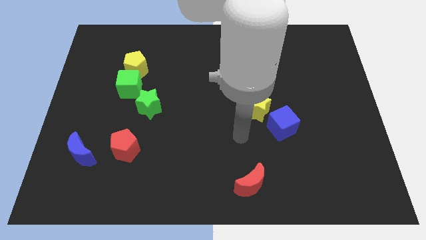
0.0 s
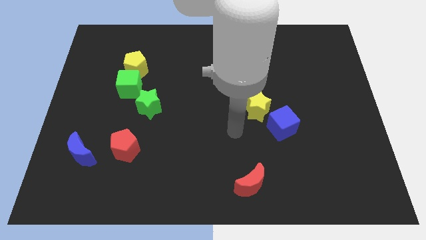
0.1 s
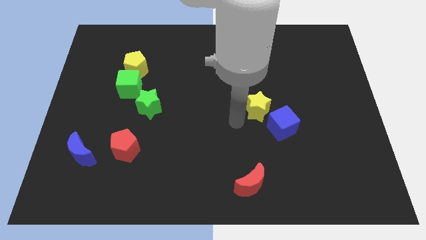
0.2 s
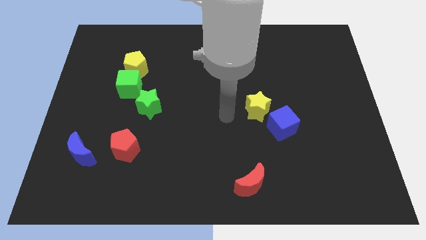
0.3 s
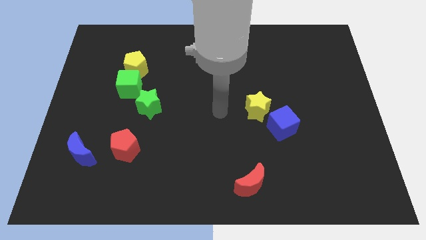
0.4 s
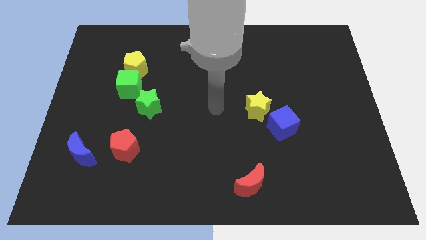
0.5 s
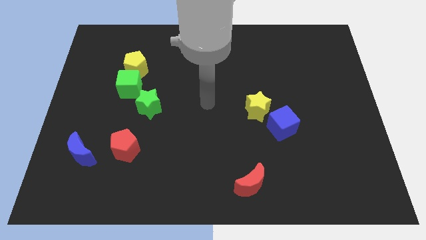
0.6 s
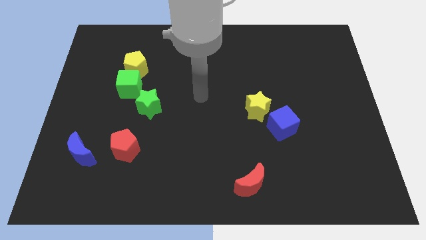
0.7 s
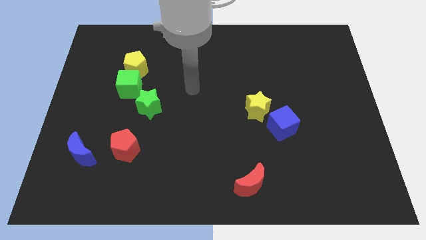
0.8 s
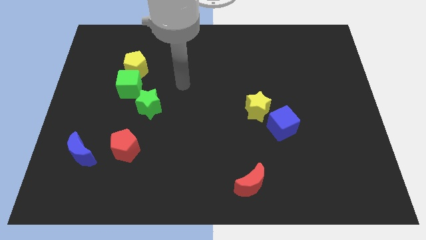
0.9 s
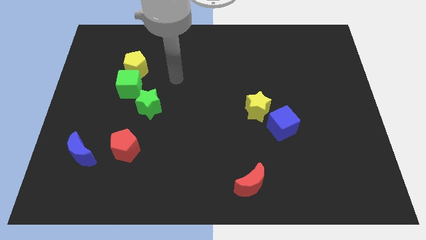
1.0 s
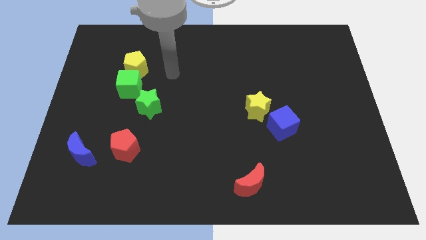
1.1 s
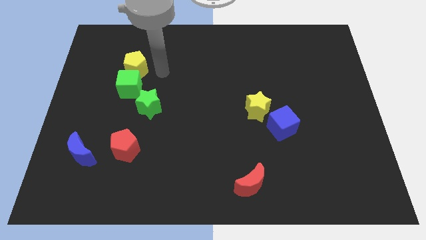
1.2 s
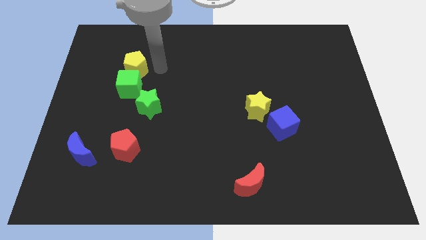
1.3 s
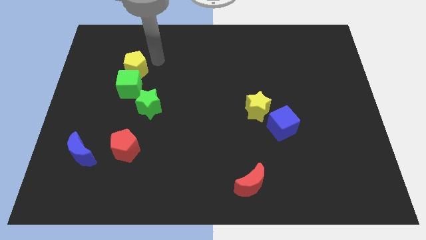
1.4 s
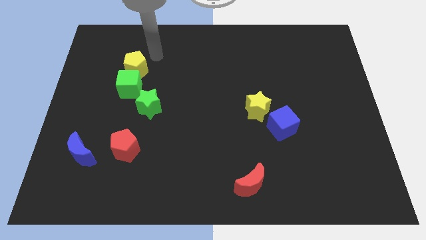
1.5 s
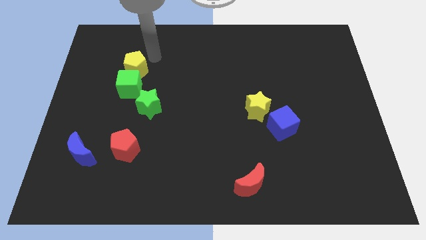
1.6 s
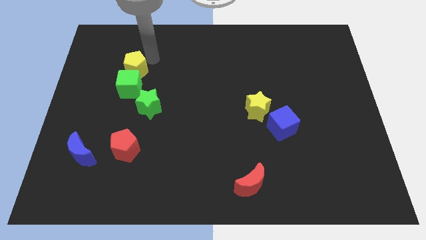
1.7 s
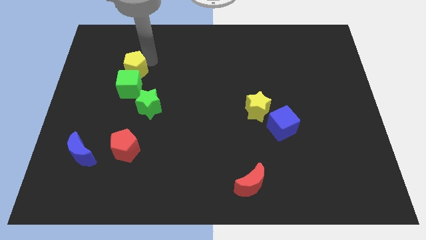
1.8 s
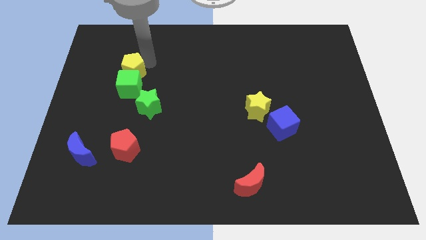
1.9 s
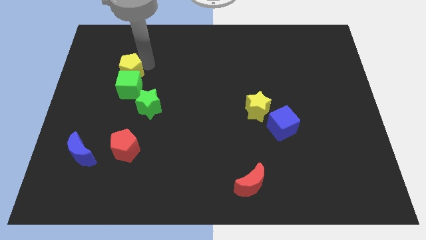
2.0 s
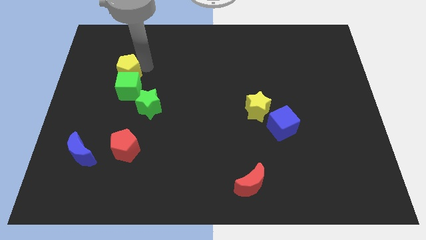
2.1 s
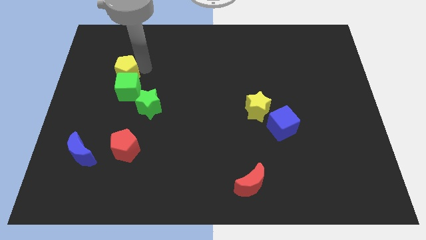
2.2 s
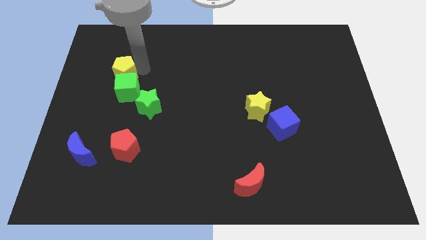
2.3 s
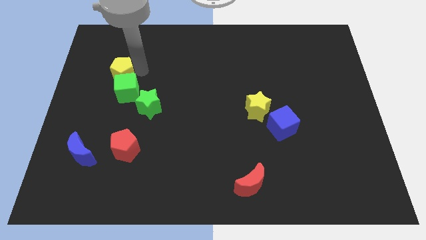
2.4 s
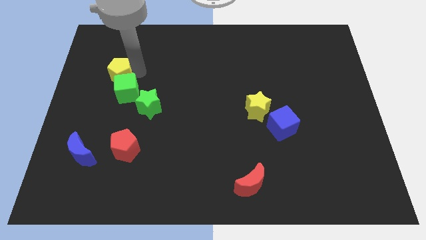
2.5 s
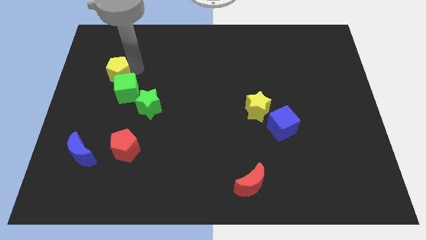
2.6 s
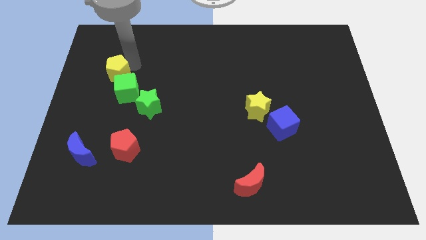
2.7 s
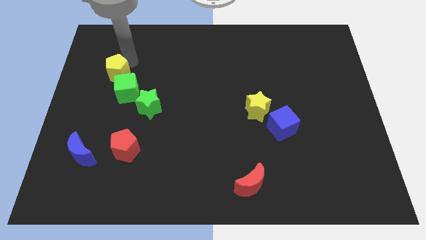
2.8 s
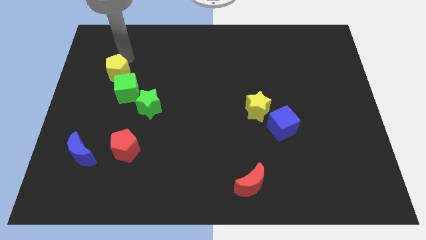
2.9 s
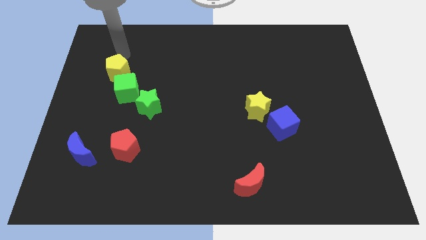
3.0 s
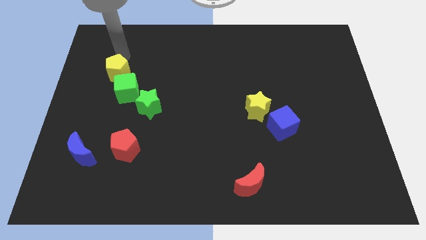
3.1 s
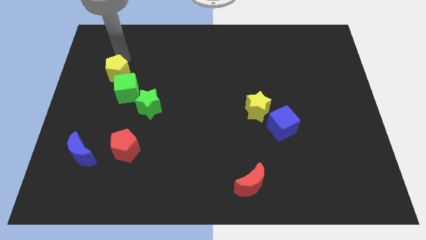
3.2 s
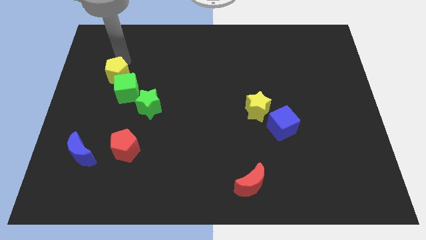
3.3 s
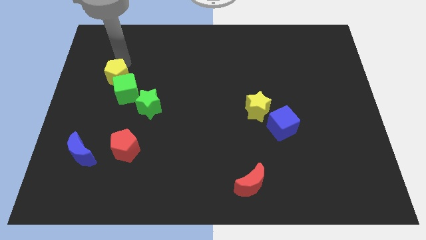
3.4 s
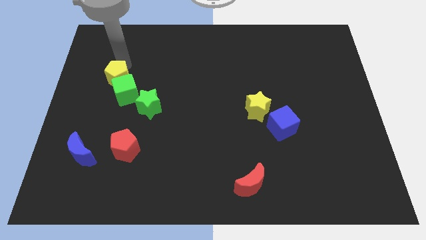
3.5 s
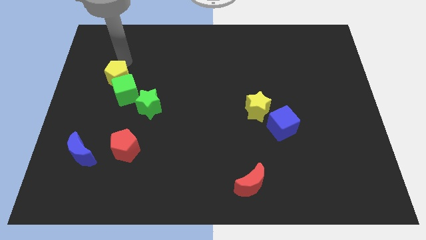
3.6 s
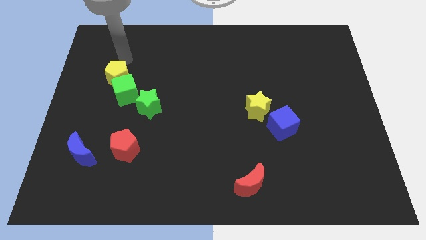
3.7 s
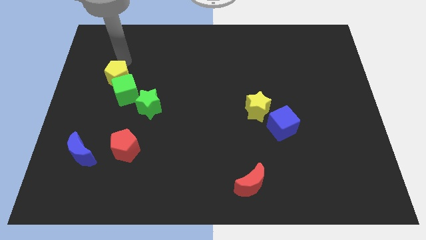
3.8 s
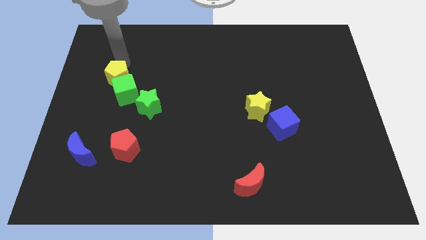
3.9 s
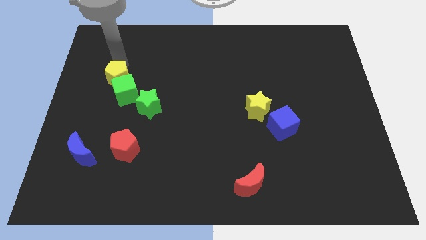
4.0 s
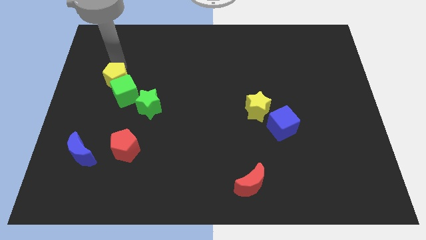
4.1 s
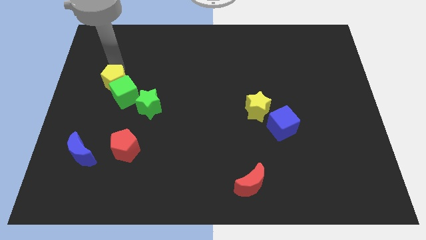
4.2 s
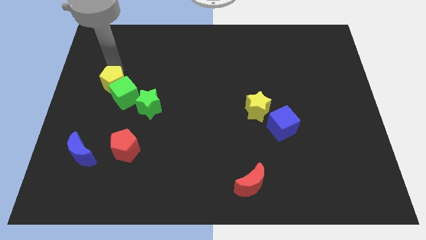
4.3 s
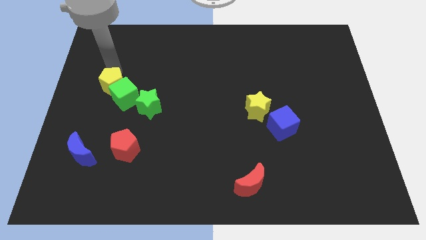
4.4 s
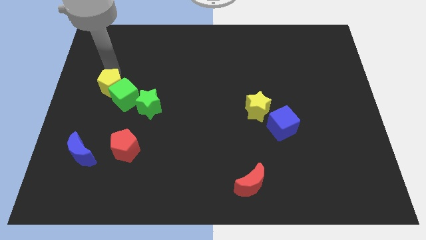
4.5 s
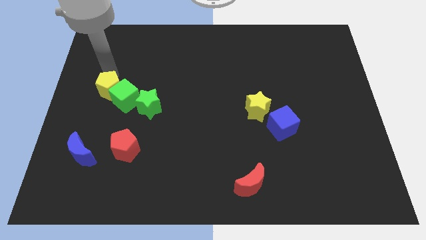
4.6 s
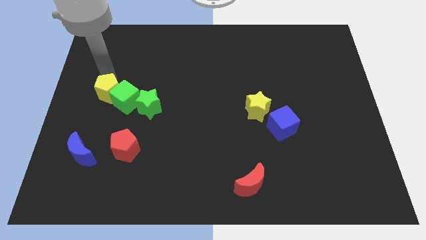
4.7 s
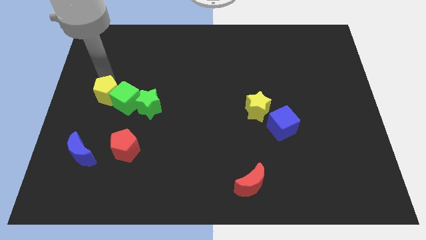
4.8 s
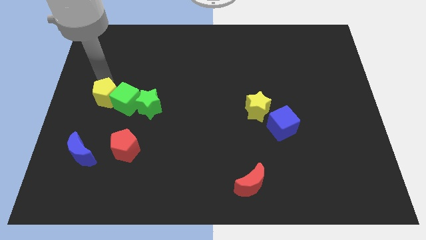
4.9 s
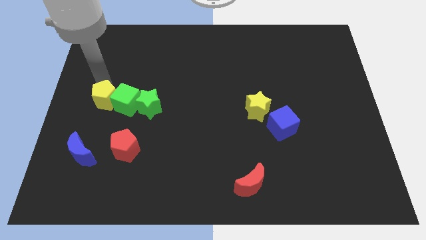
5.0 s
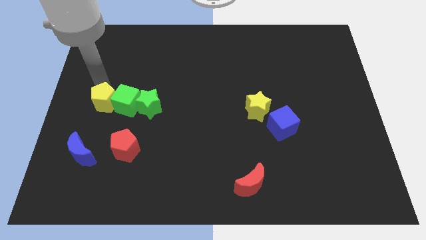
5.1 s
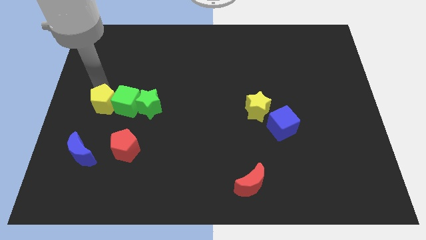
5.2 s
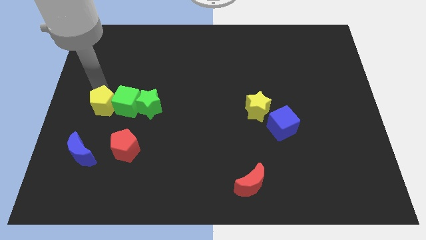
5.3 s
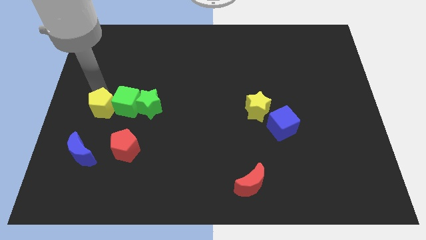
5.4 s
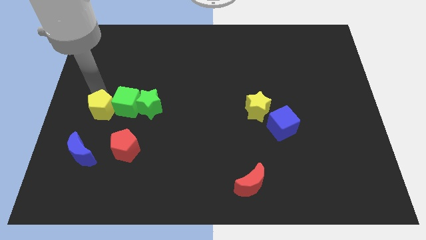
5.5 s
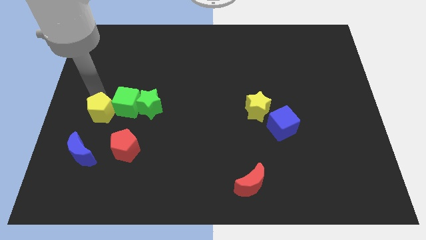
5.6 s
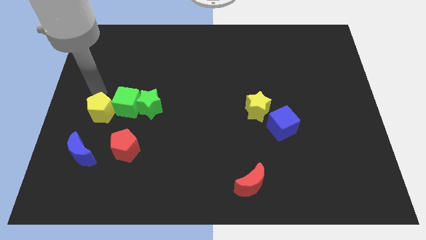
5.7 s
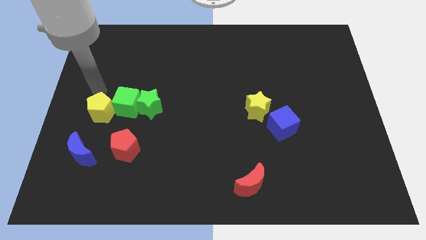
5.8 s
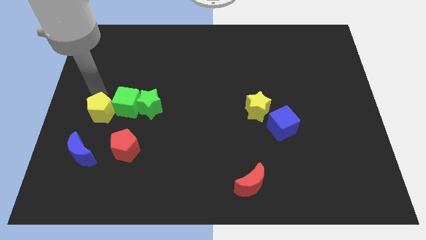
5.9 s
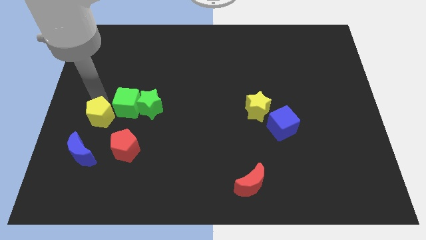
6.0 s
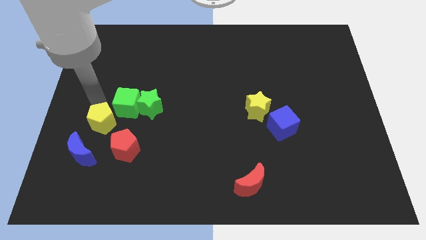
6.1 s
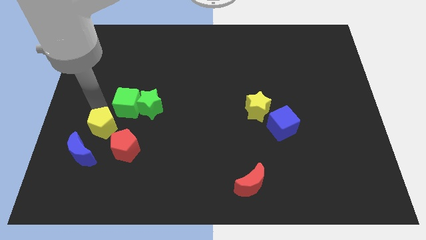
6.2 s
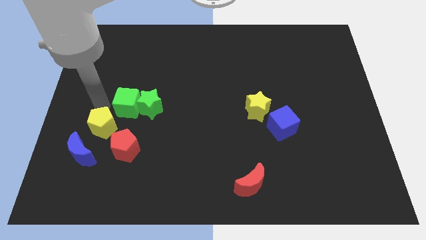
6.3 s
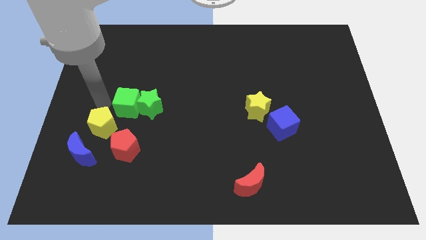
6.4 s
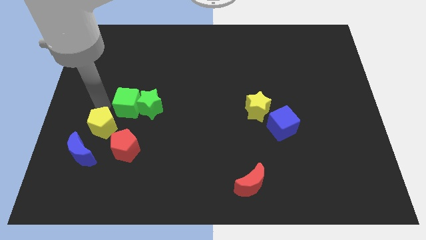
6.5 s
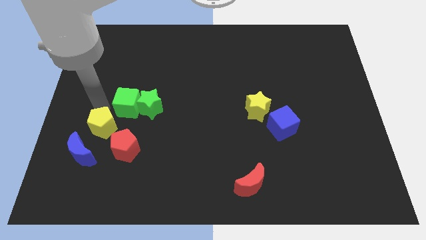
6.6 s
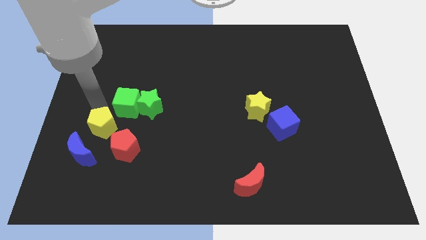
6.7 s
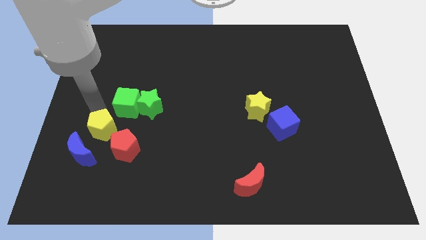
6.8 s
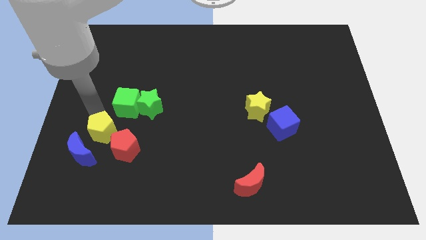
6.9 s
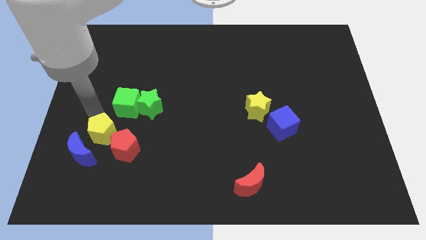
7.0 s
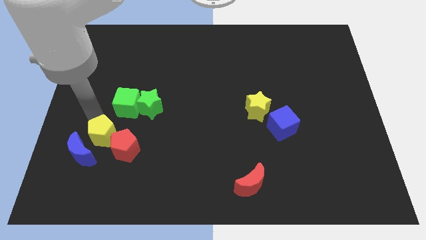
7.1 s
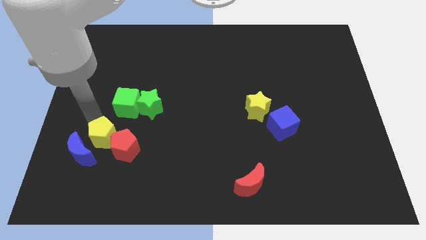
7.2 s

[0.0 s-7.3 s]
move the yellow pentagon down

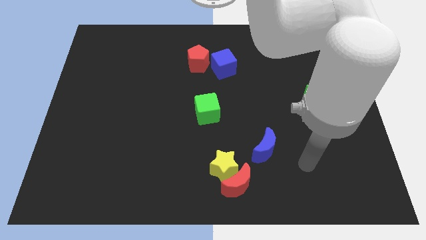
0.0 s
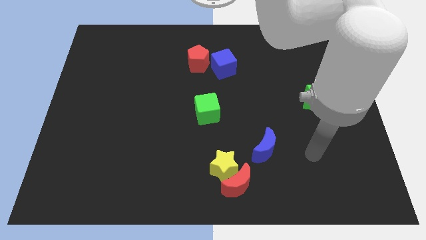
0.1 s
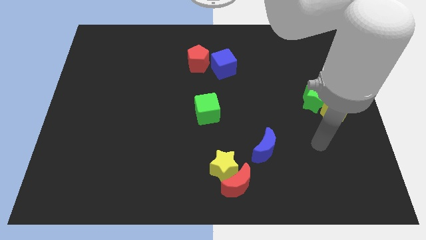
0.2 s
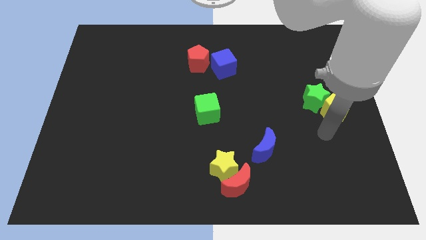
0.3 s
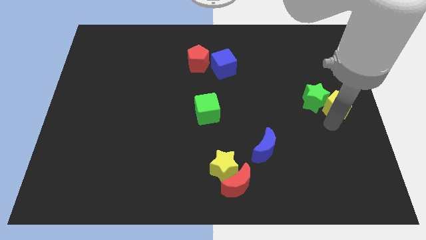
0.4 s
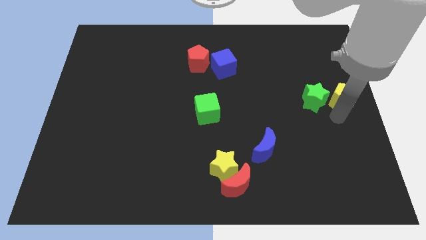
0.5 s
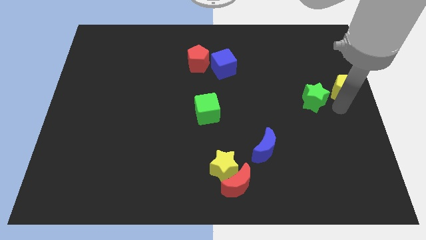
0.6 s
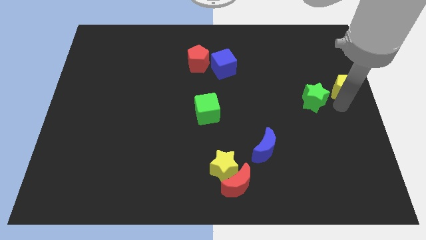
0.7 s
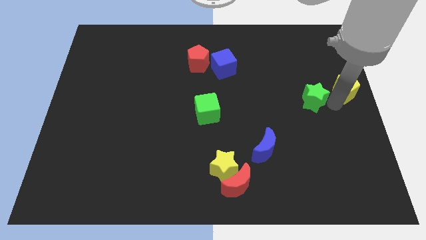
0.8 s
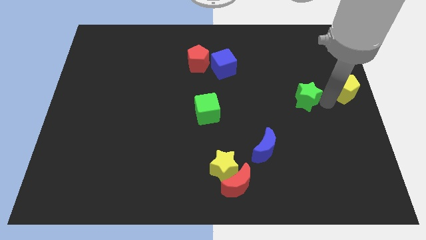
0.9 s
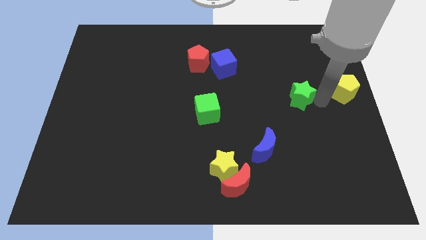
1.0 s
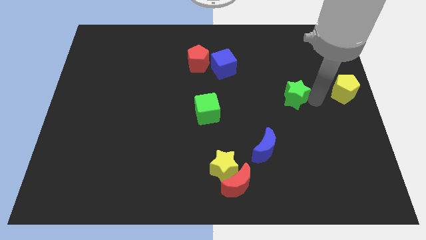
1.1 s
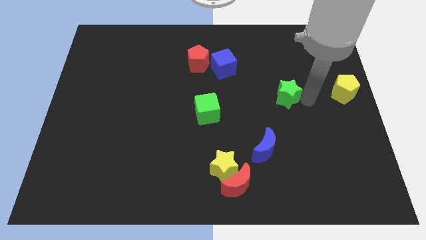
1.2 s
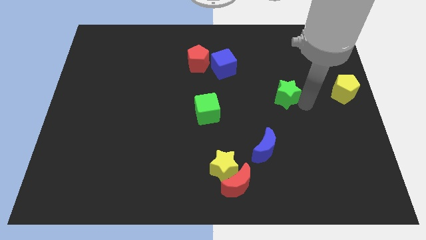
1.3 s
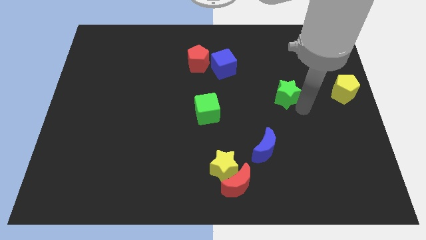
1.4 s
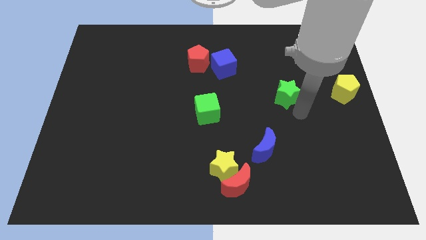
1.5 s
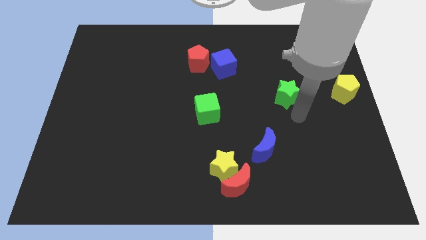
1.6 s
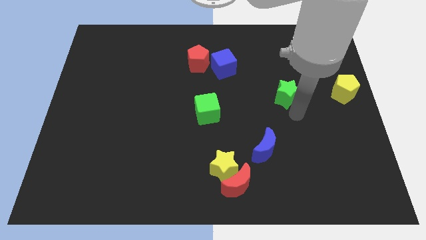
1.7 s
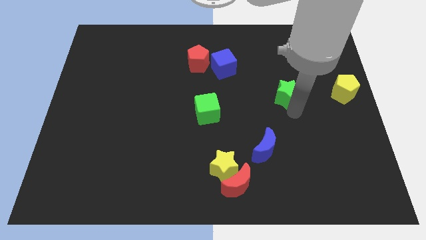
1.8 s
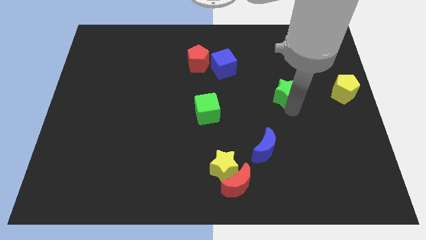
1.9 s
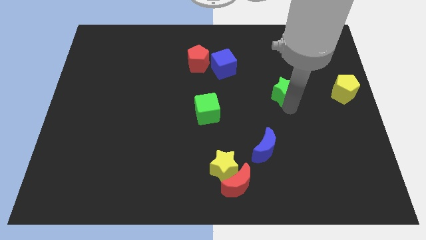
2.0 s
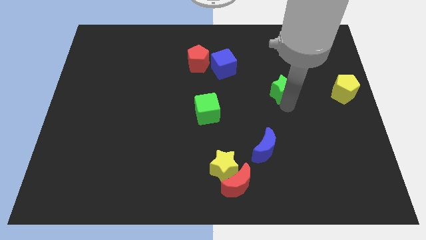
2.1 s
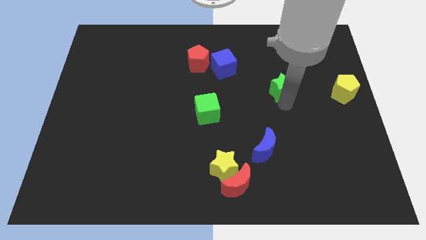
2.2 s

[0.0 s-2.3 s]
slightly push the green star upwards and then to the left
